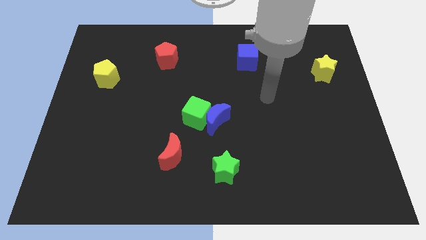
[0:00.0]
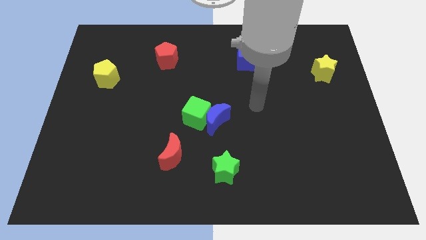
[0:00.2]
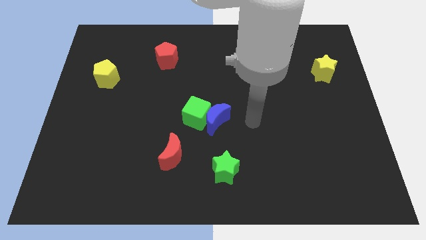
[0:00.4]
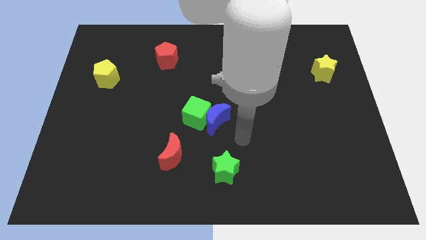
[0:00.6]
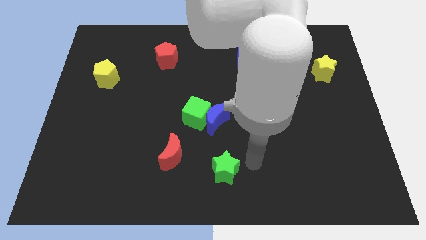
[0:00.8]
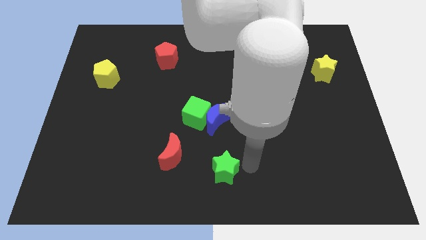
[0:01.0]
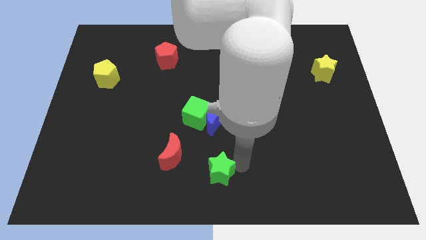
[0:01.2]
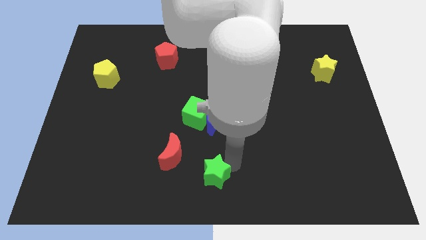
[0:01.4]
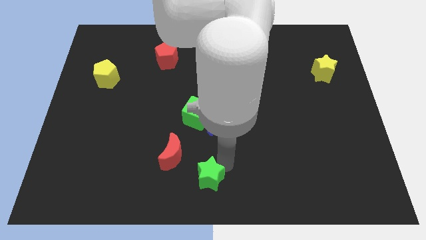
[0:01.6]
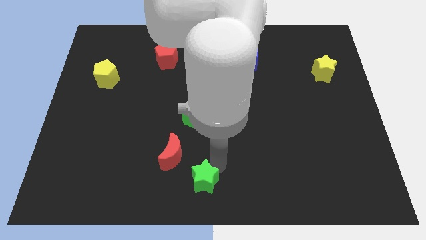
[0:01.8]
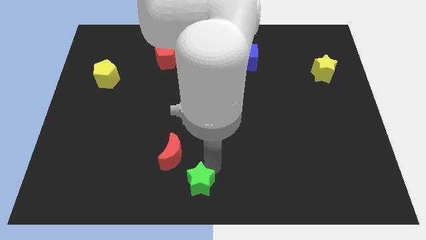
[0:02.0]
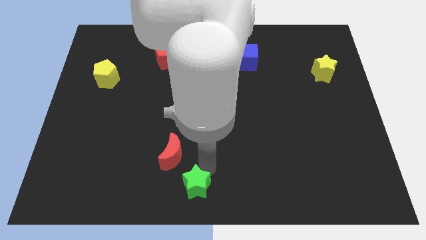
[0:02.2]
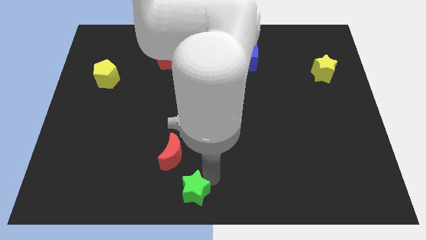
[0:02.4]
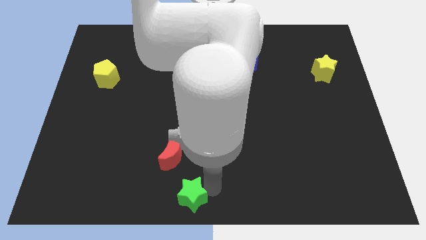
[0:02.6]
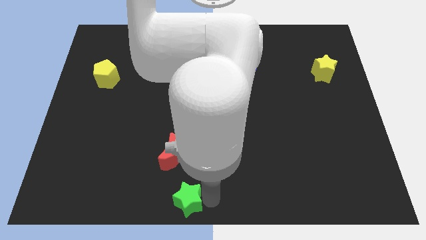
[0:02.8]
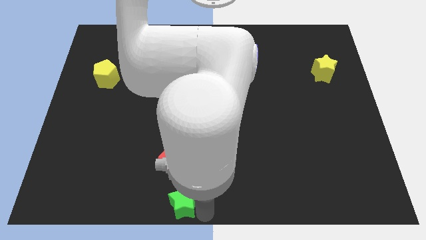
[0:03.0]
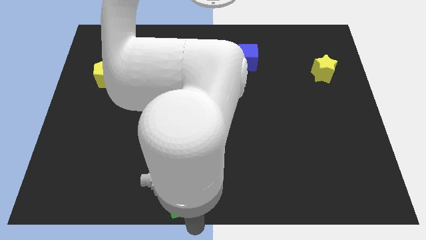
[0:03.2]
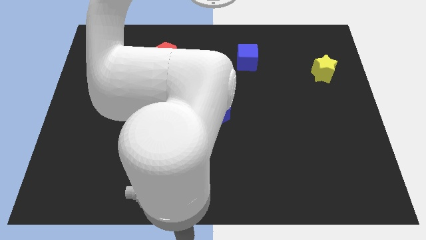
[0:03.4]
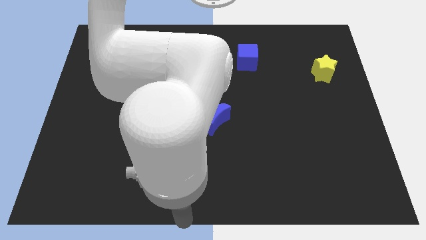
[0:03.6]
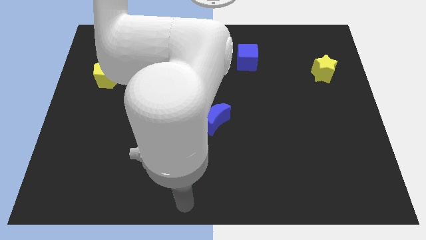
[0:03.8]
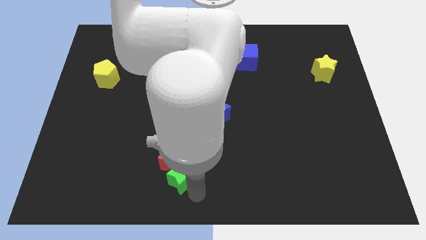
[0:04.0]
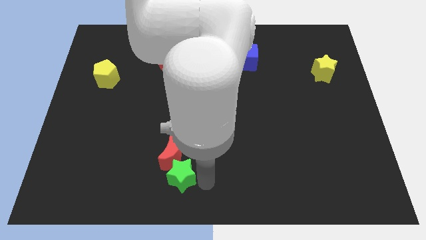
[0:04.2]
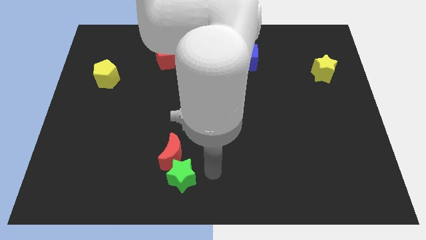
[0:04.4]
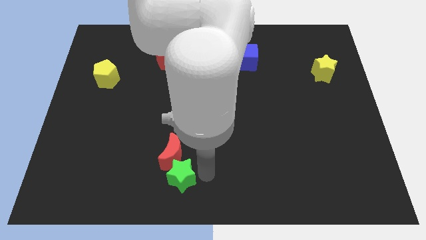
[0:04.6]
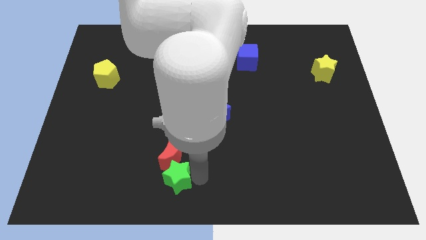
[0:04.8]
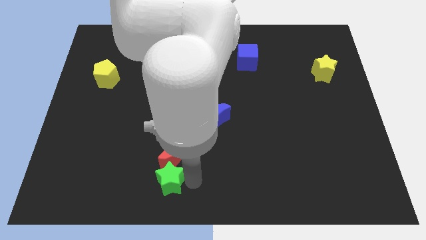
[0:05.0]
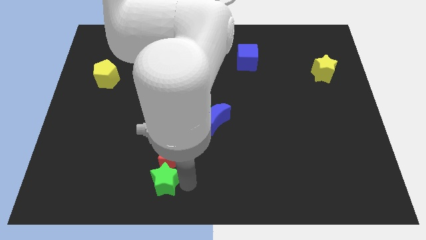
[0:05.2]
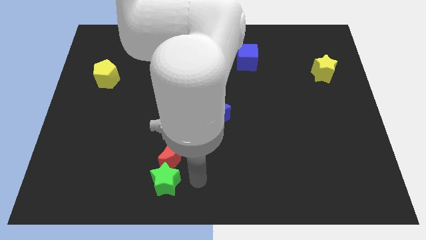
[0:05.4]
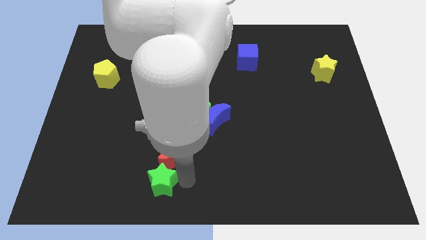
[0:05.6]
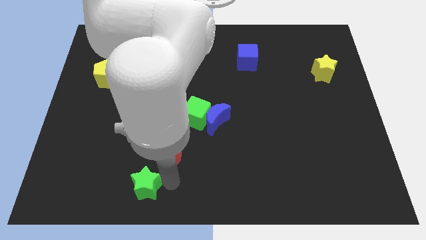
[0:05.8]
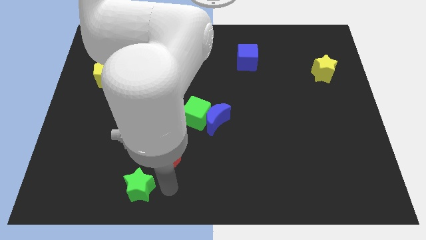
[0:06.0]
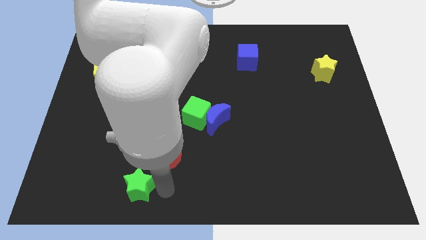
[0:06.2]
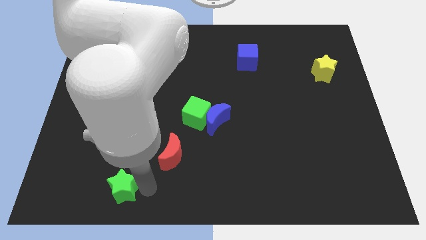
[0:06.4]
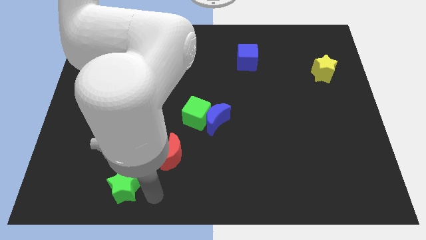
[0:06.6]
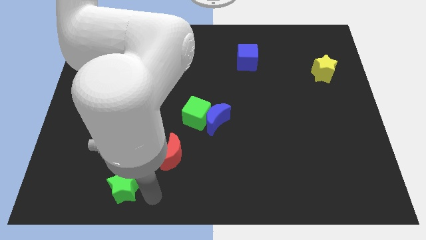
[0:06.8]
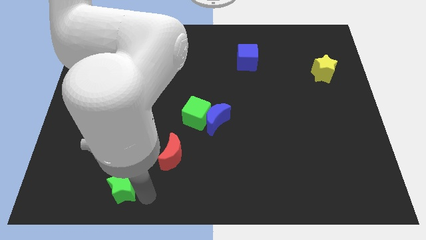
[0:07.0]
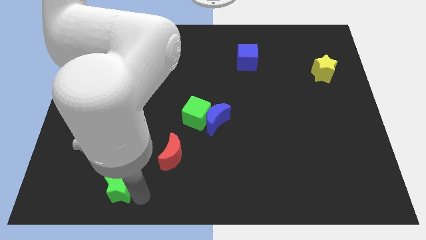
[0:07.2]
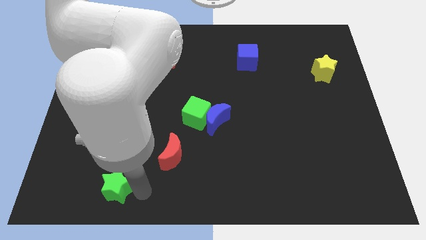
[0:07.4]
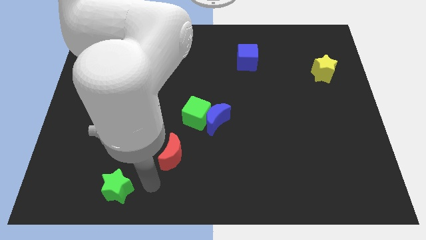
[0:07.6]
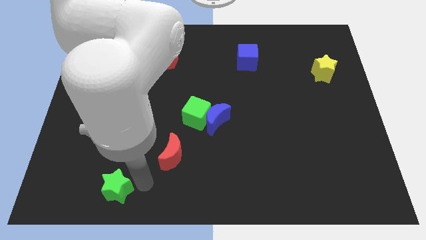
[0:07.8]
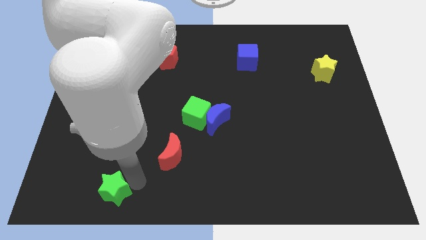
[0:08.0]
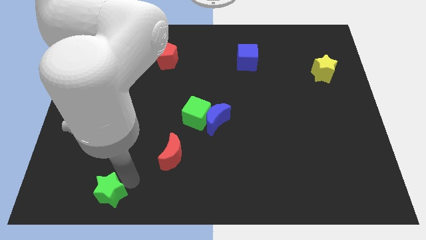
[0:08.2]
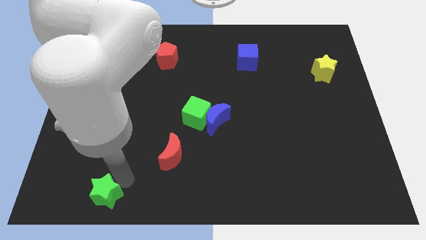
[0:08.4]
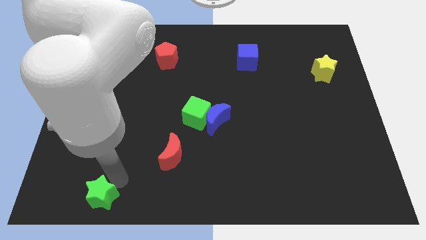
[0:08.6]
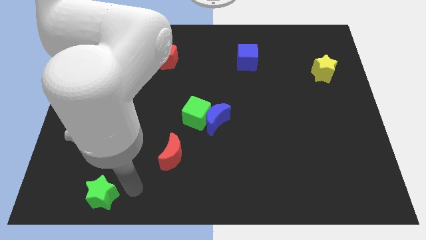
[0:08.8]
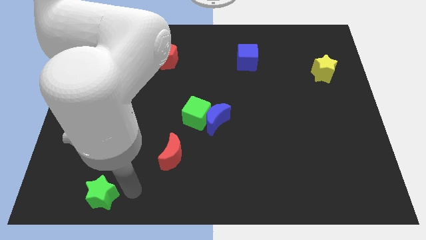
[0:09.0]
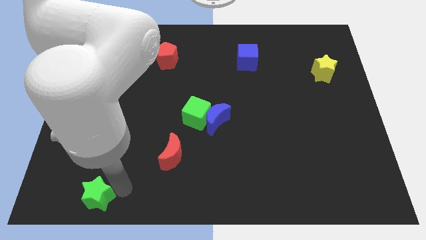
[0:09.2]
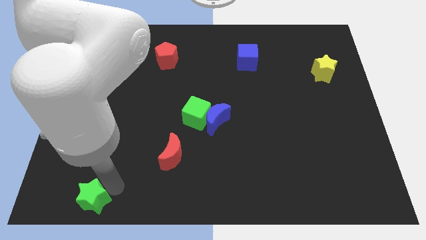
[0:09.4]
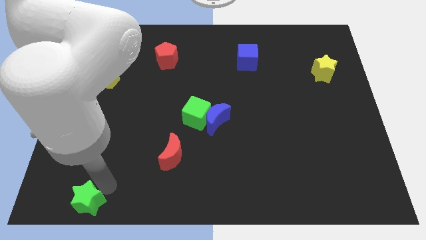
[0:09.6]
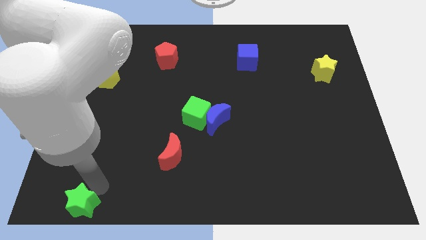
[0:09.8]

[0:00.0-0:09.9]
slide the green star to the lower left corner
